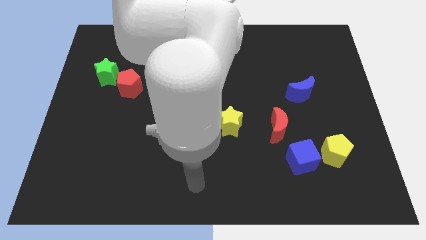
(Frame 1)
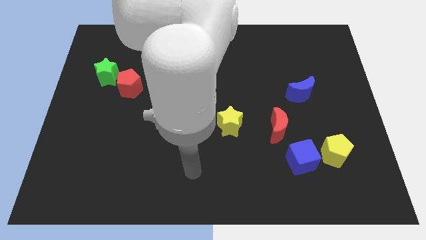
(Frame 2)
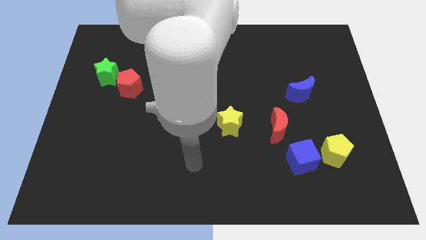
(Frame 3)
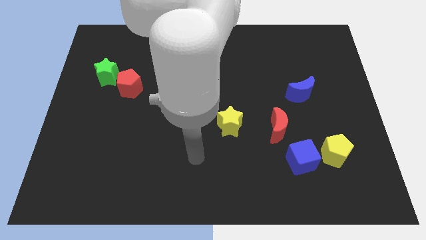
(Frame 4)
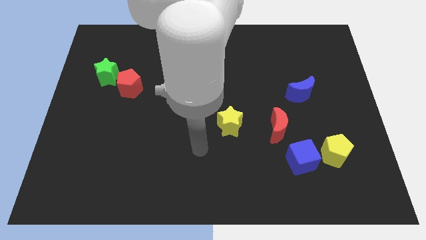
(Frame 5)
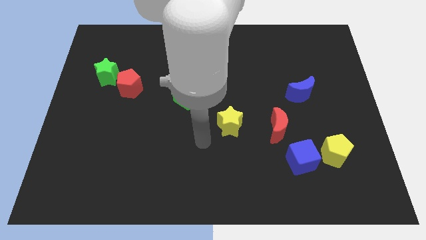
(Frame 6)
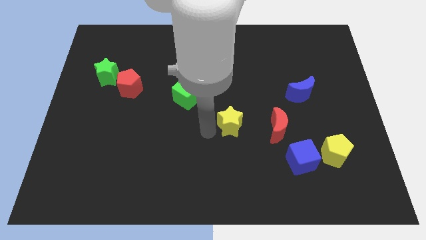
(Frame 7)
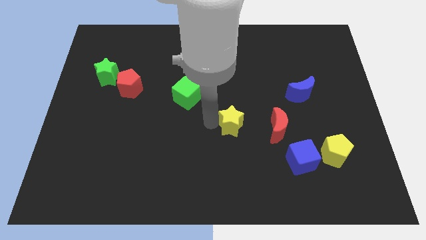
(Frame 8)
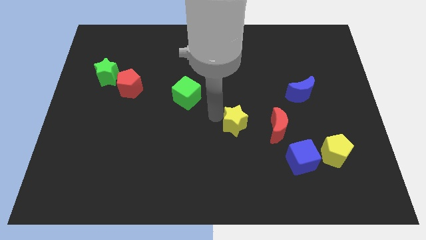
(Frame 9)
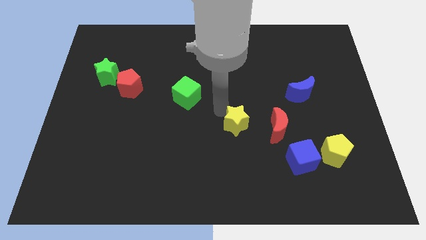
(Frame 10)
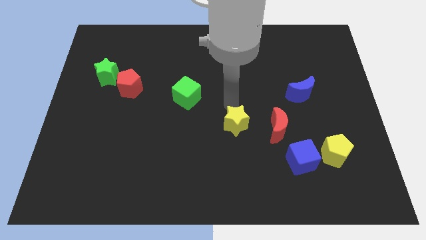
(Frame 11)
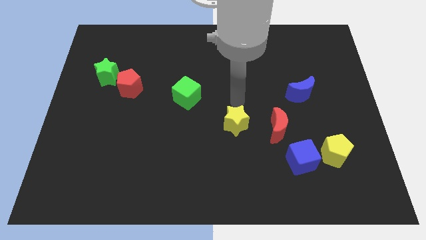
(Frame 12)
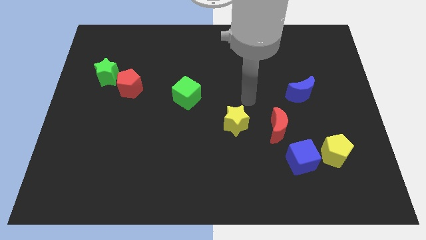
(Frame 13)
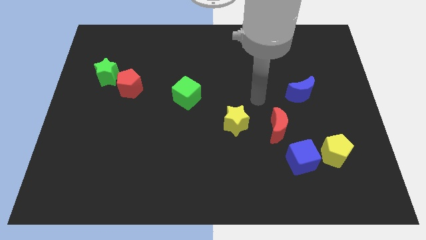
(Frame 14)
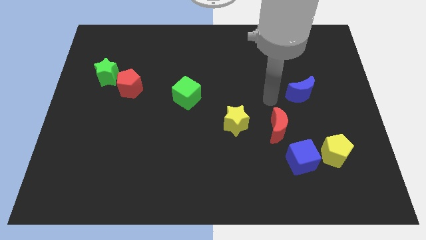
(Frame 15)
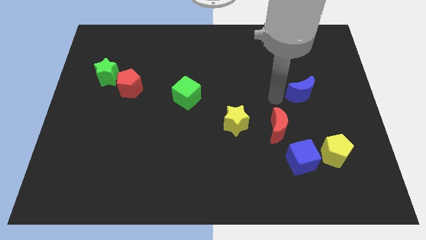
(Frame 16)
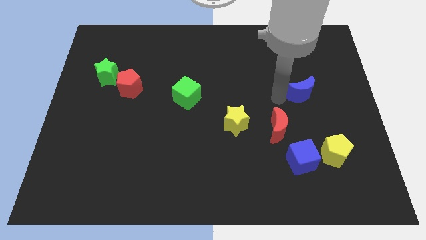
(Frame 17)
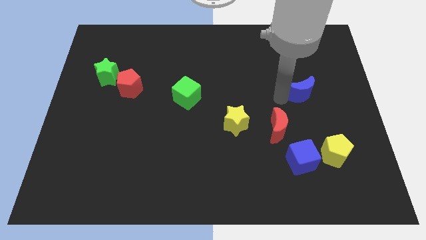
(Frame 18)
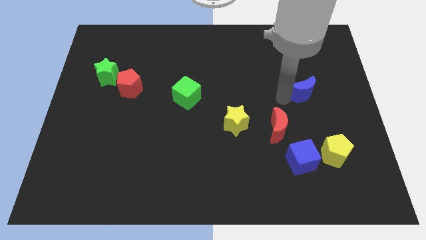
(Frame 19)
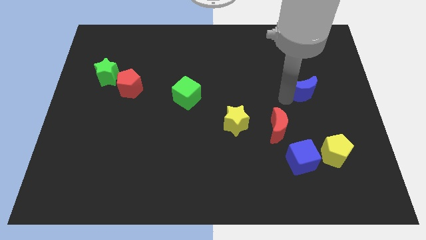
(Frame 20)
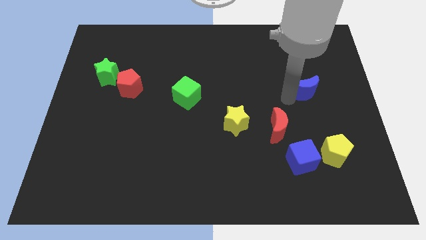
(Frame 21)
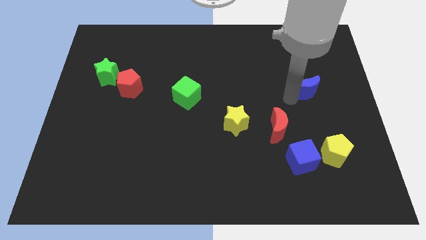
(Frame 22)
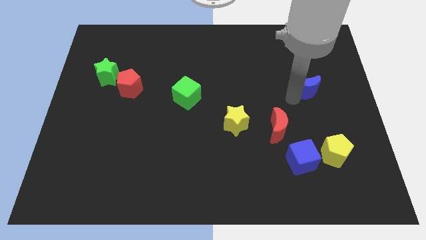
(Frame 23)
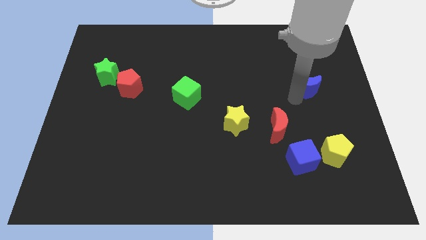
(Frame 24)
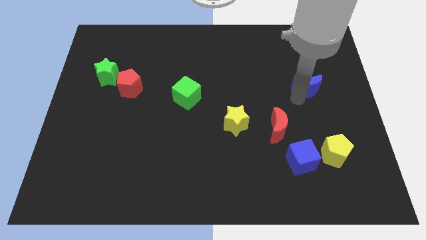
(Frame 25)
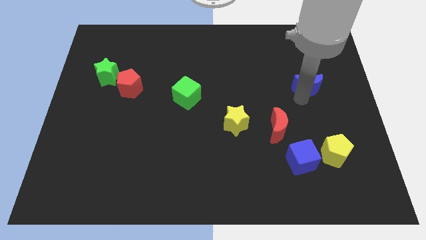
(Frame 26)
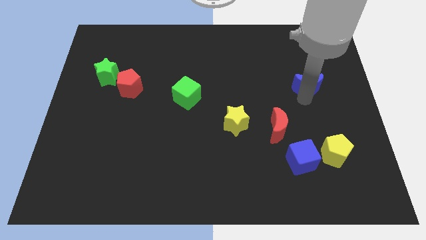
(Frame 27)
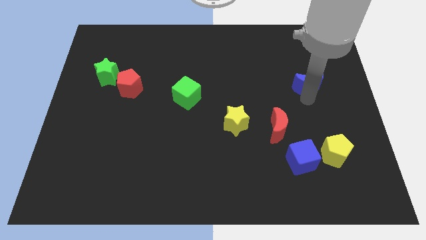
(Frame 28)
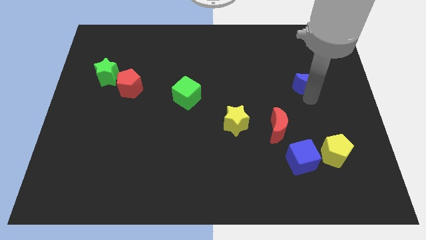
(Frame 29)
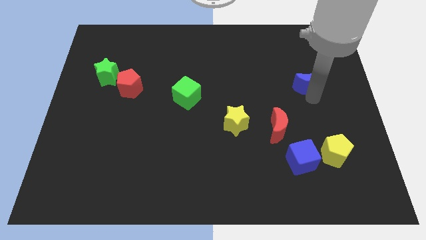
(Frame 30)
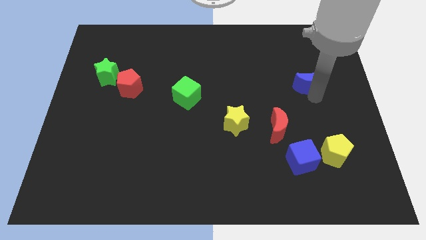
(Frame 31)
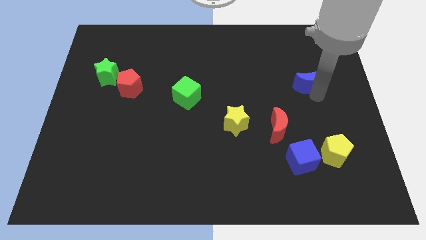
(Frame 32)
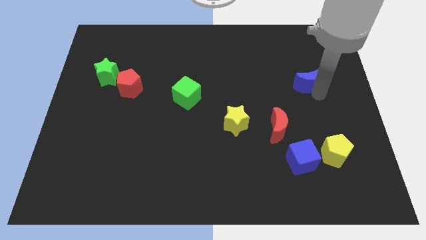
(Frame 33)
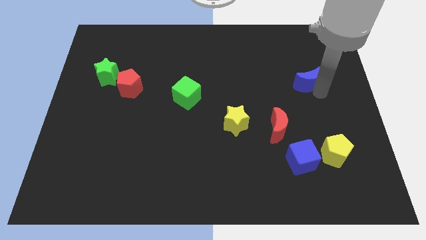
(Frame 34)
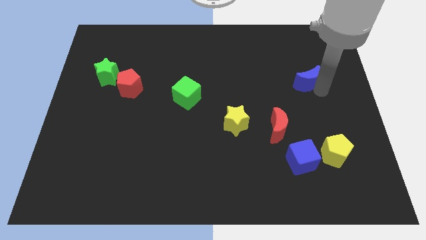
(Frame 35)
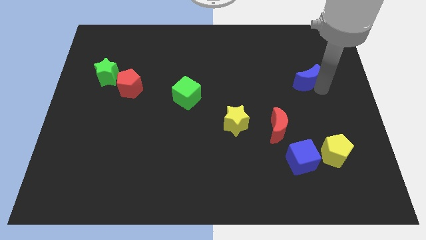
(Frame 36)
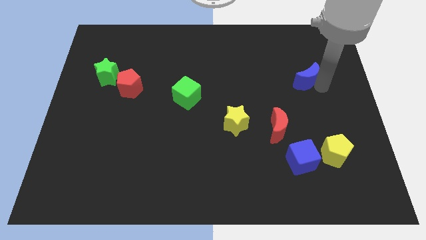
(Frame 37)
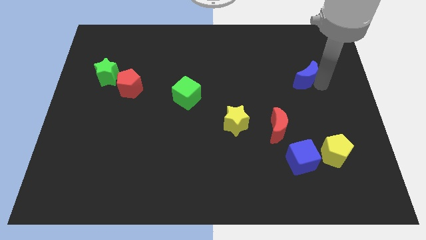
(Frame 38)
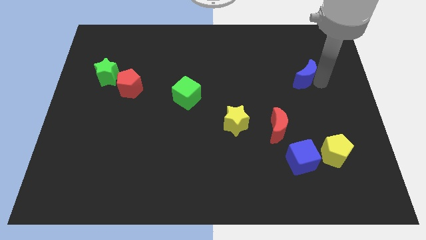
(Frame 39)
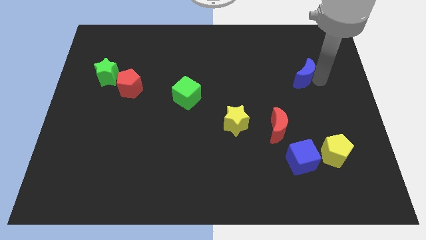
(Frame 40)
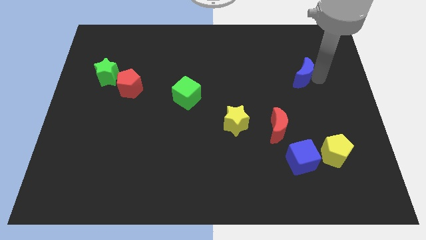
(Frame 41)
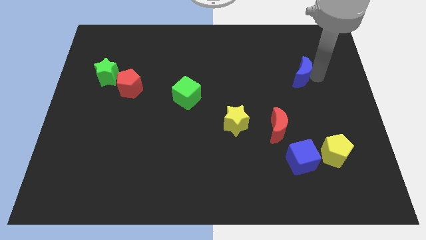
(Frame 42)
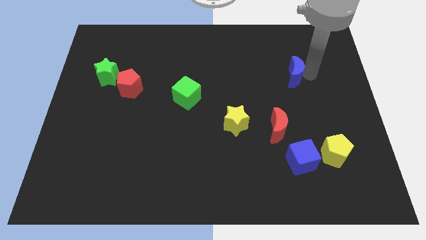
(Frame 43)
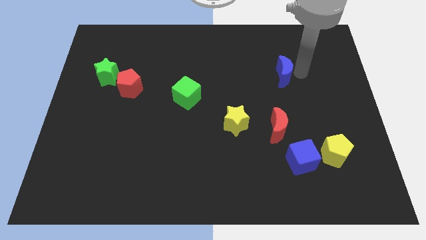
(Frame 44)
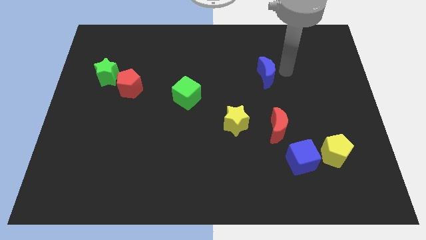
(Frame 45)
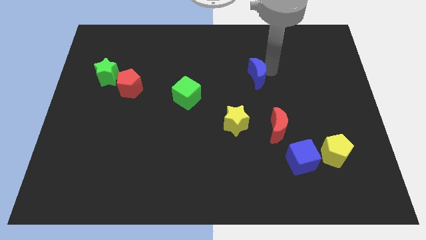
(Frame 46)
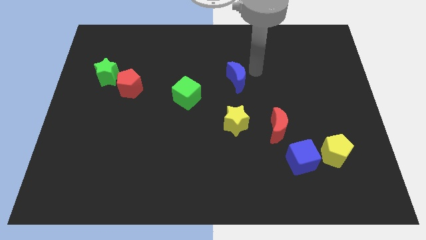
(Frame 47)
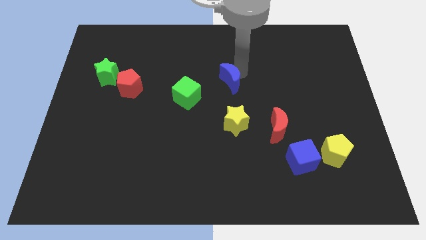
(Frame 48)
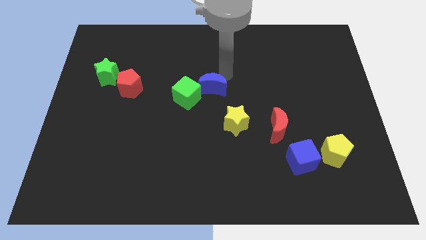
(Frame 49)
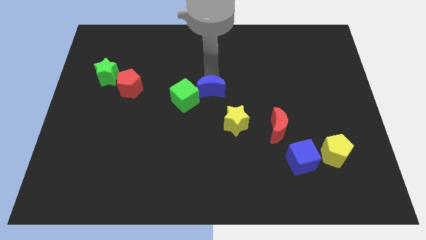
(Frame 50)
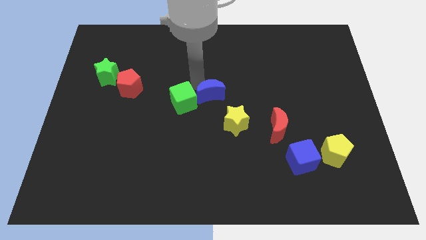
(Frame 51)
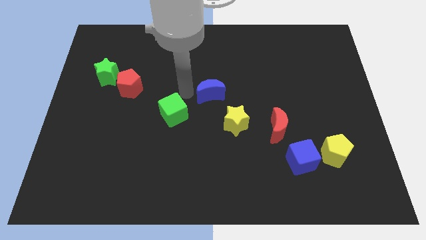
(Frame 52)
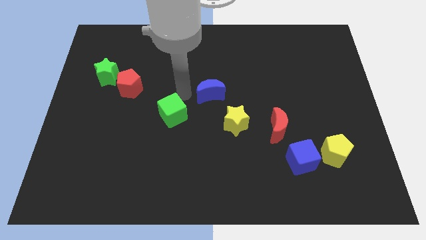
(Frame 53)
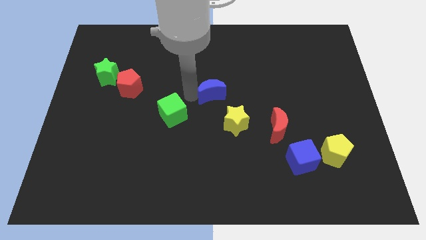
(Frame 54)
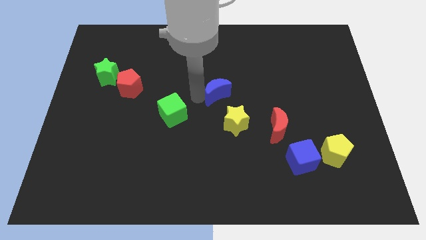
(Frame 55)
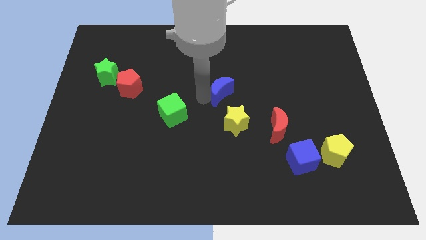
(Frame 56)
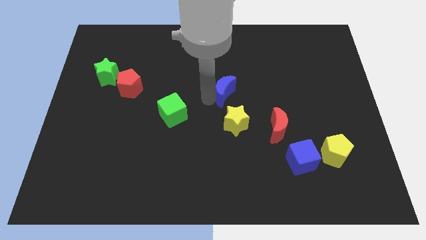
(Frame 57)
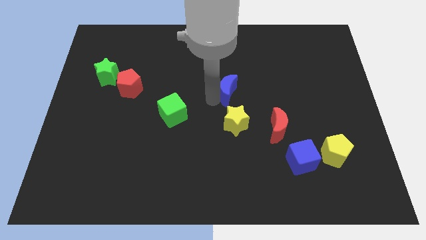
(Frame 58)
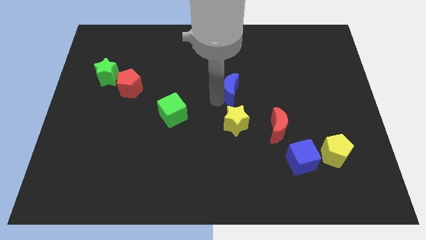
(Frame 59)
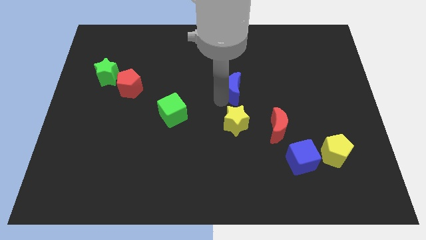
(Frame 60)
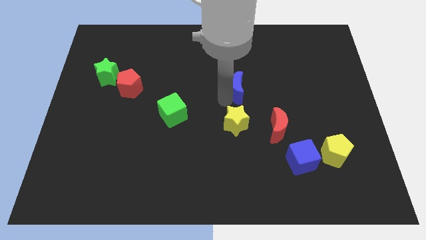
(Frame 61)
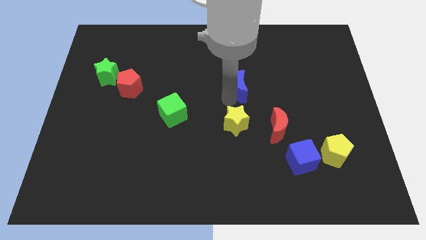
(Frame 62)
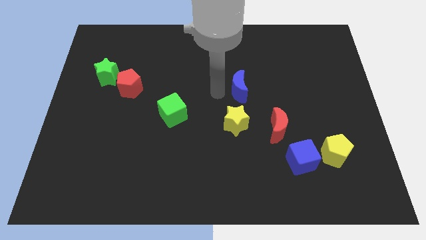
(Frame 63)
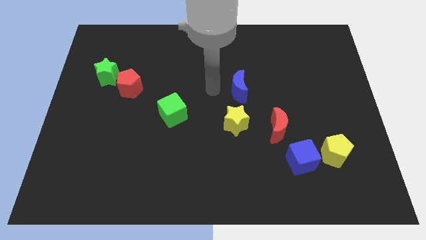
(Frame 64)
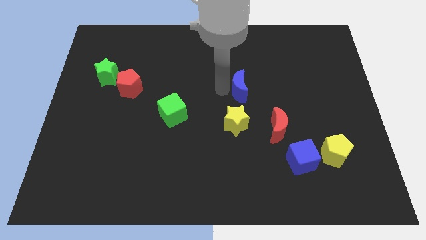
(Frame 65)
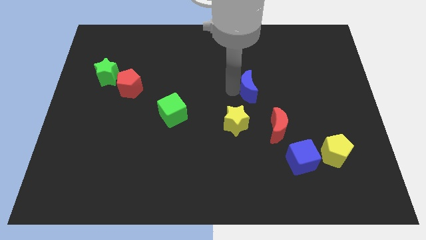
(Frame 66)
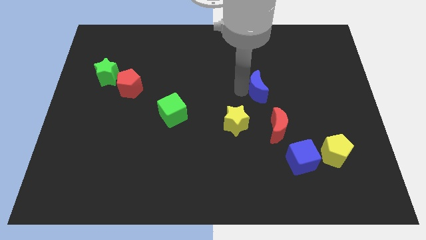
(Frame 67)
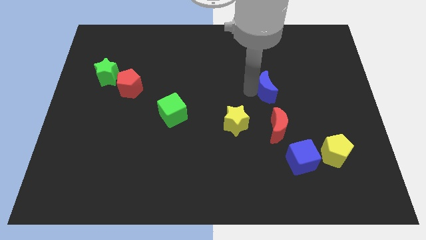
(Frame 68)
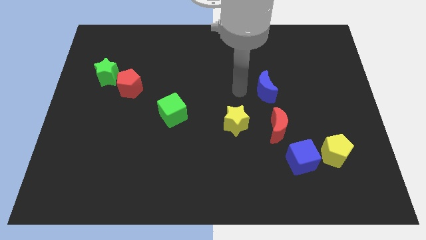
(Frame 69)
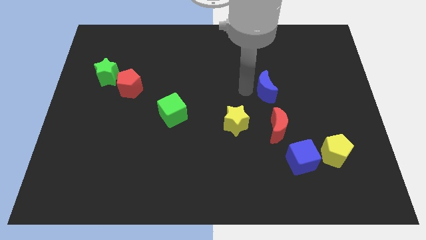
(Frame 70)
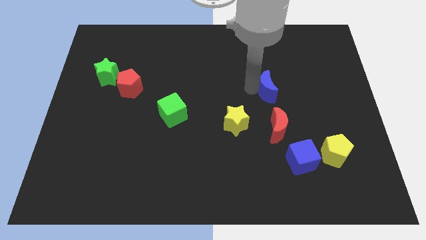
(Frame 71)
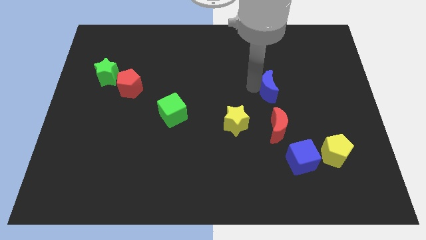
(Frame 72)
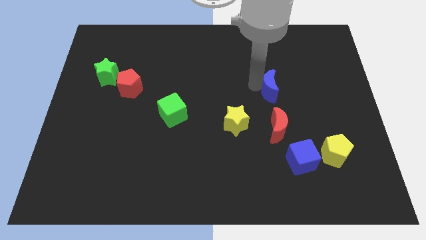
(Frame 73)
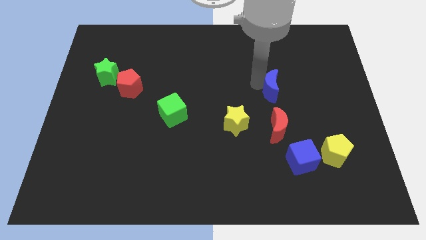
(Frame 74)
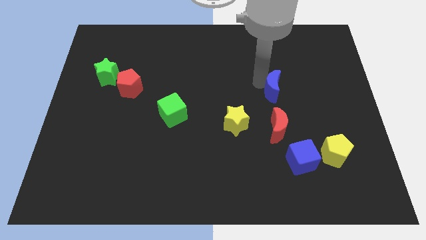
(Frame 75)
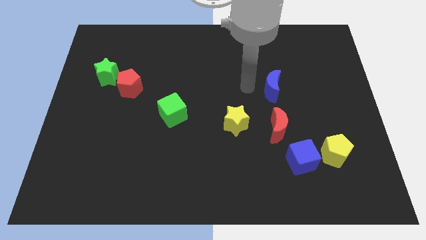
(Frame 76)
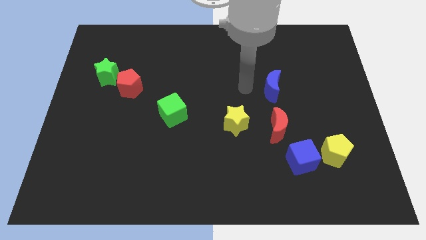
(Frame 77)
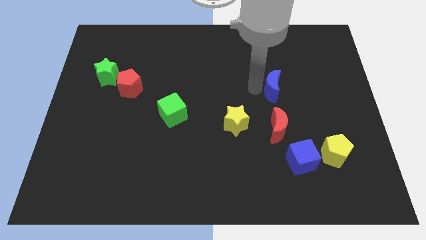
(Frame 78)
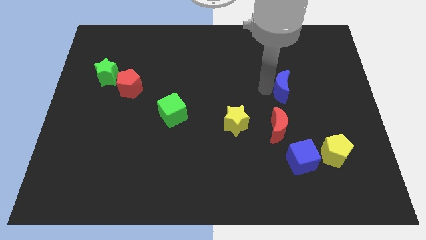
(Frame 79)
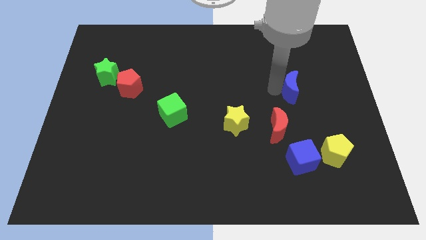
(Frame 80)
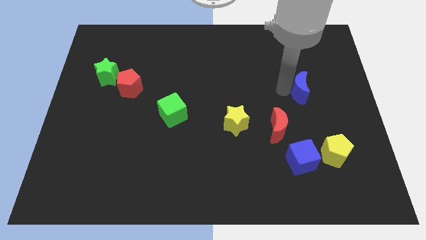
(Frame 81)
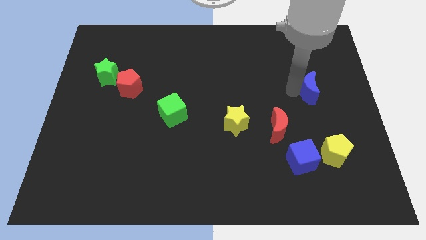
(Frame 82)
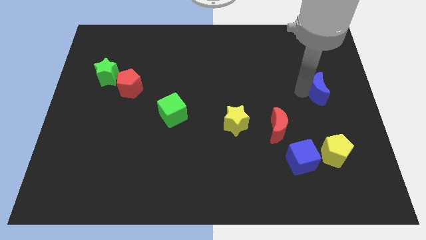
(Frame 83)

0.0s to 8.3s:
put the blue moon to the right side
